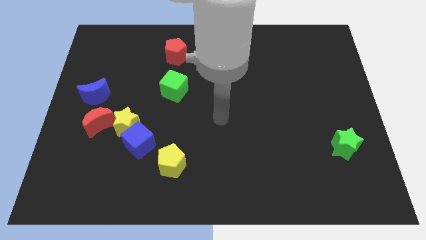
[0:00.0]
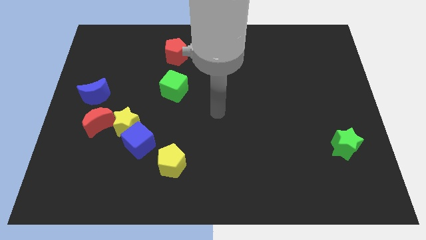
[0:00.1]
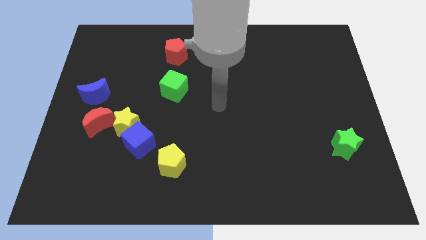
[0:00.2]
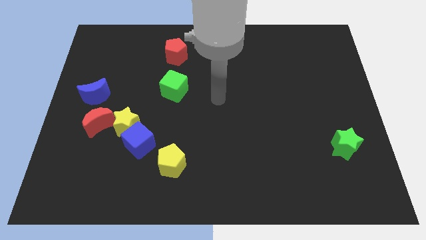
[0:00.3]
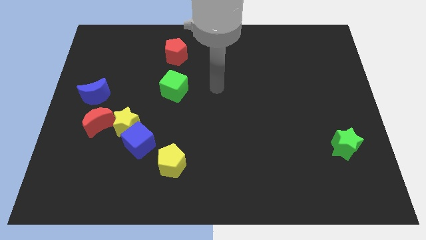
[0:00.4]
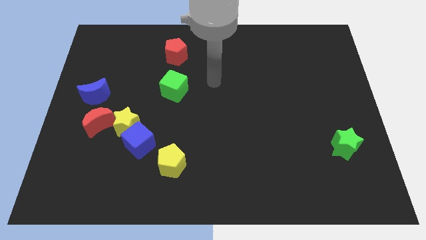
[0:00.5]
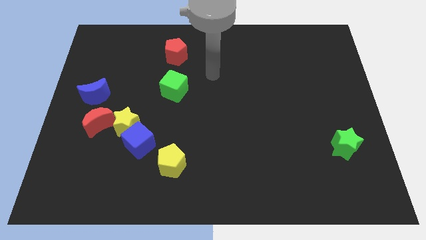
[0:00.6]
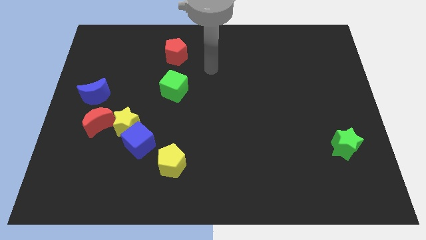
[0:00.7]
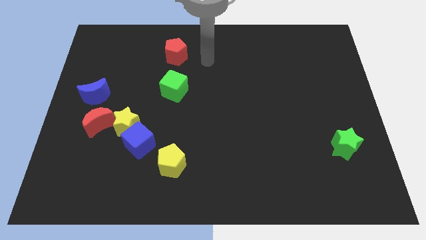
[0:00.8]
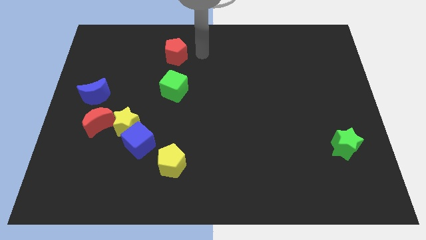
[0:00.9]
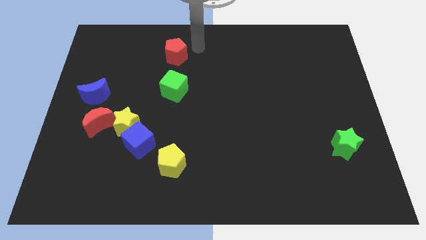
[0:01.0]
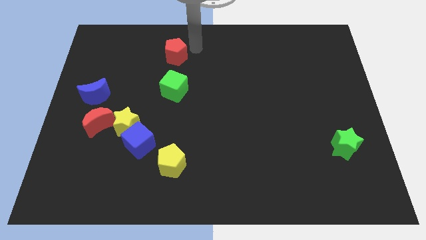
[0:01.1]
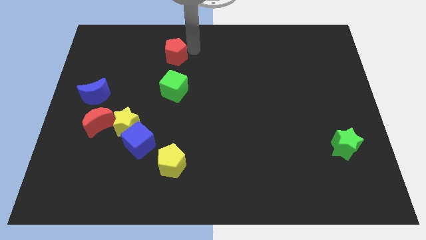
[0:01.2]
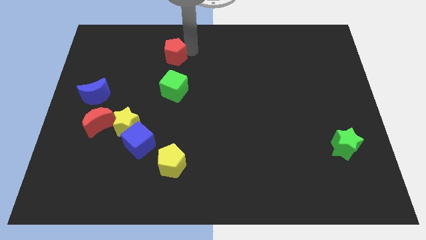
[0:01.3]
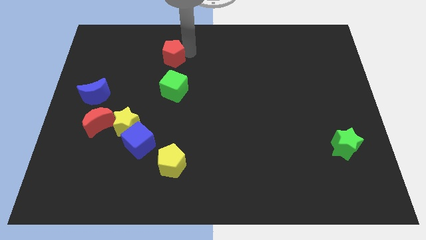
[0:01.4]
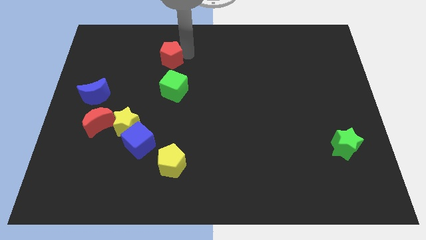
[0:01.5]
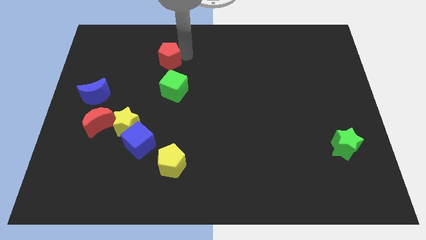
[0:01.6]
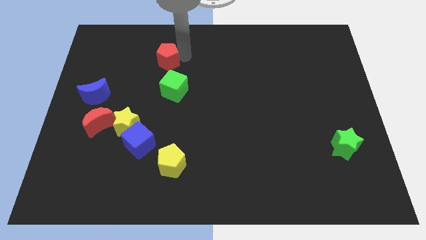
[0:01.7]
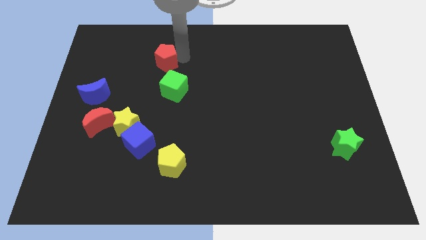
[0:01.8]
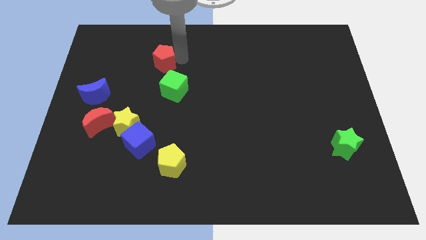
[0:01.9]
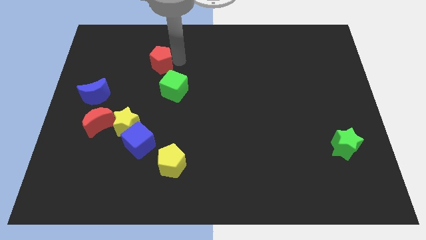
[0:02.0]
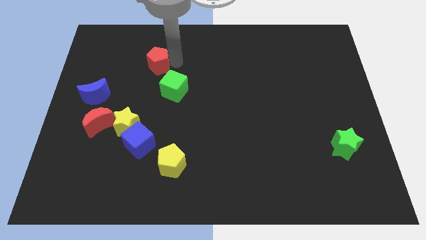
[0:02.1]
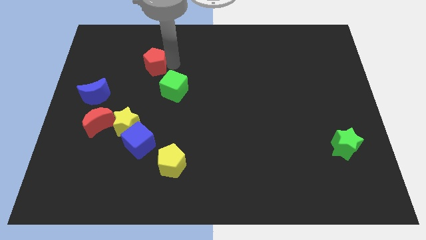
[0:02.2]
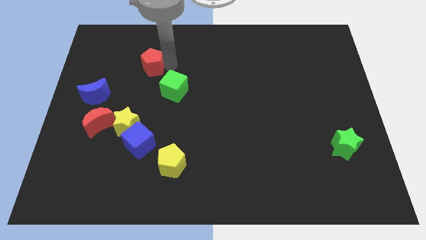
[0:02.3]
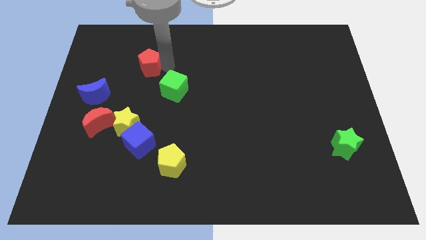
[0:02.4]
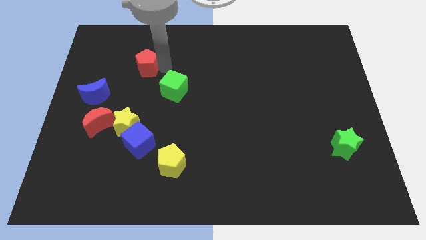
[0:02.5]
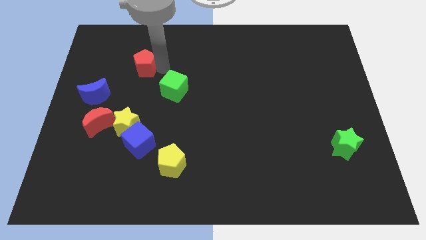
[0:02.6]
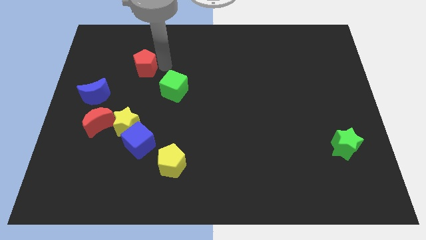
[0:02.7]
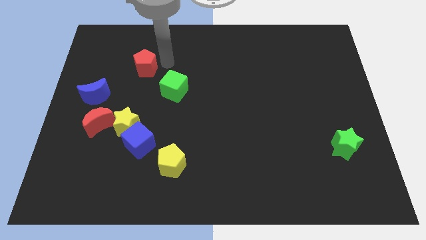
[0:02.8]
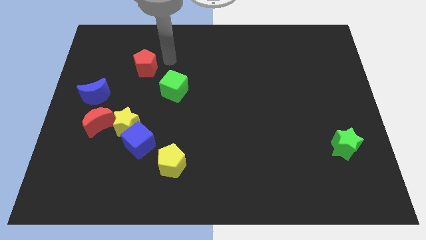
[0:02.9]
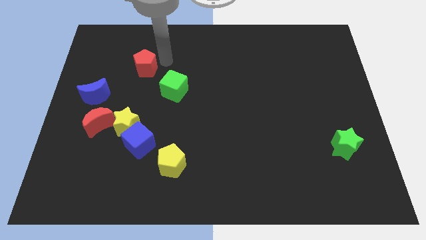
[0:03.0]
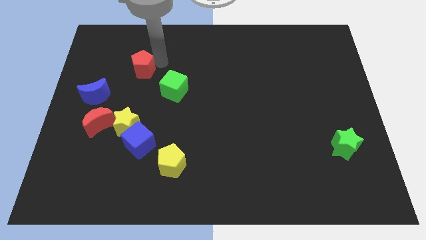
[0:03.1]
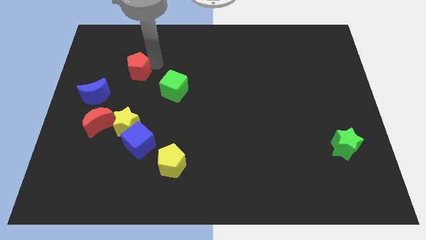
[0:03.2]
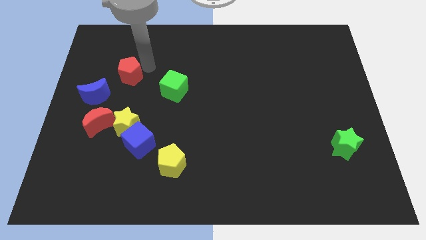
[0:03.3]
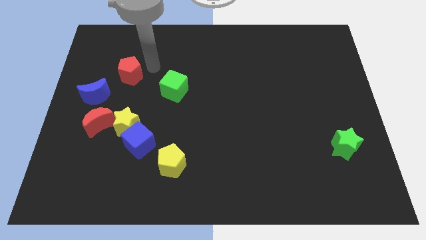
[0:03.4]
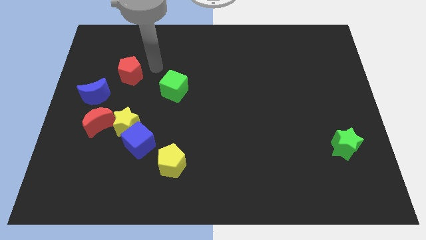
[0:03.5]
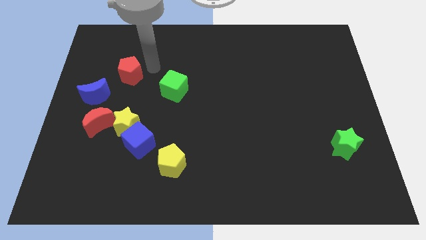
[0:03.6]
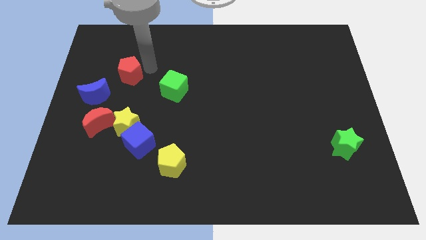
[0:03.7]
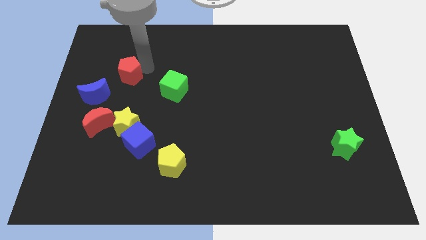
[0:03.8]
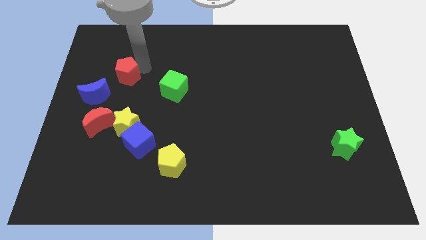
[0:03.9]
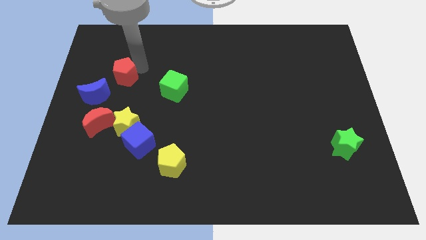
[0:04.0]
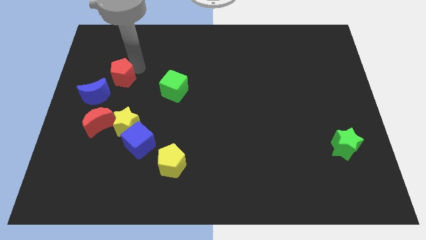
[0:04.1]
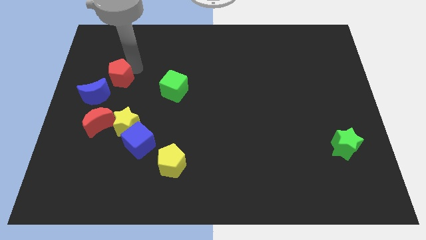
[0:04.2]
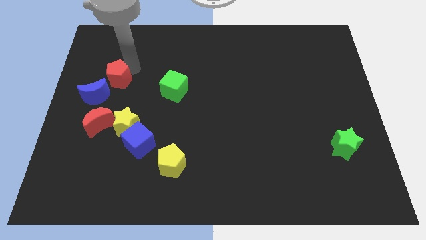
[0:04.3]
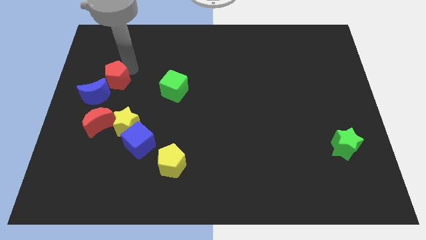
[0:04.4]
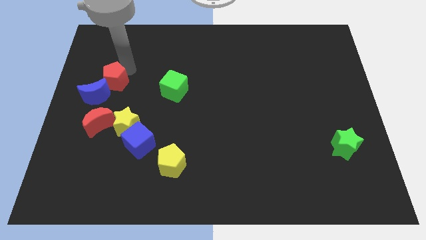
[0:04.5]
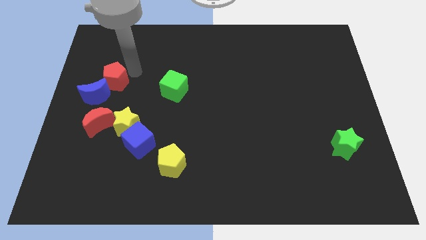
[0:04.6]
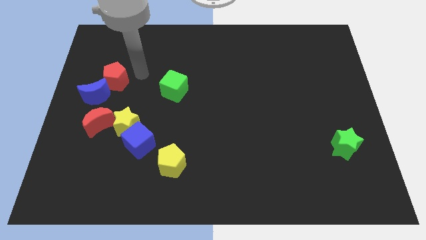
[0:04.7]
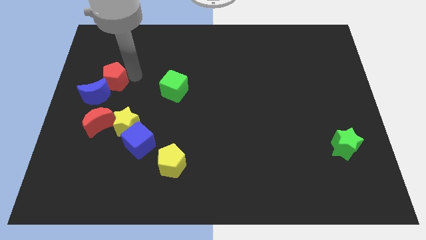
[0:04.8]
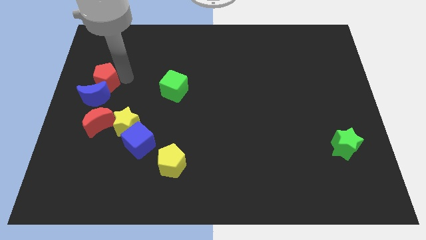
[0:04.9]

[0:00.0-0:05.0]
slide the red pentagon to the center left

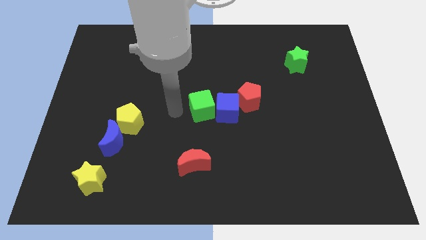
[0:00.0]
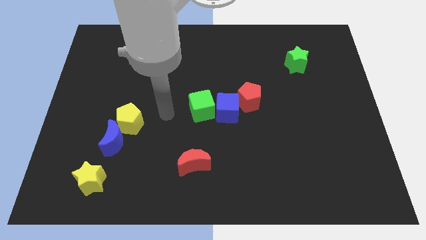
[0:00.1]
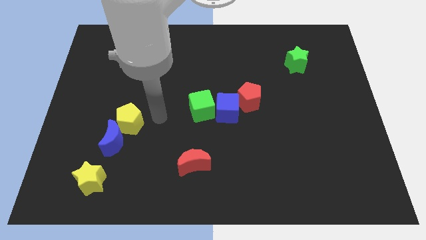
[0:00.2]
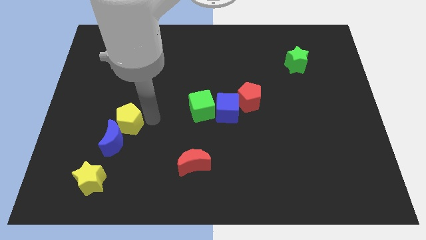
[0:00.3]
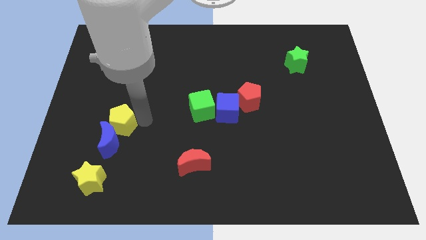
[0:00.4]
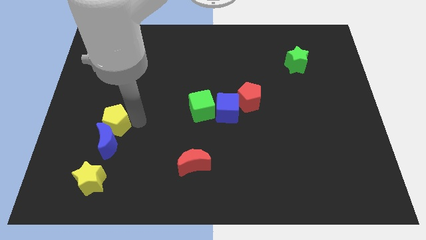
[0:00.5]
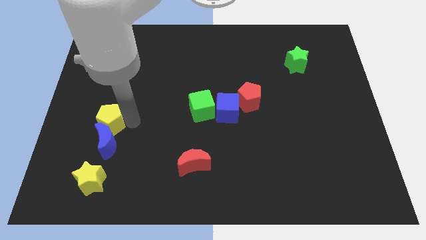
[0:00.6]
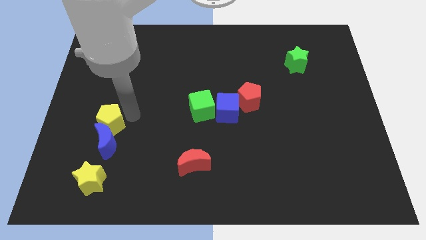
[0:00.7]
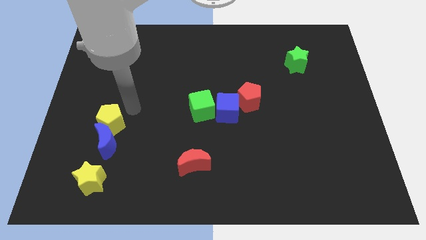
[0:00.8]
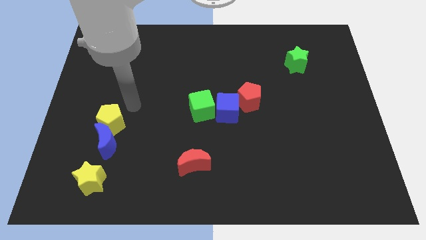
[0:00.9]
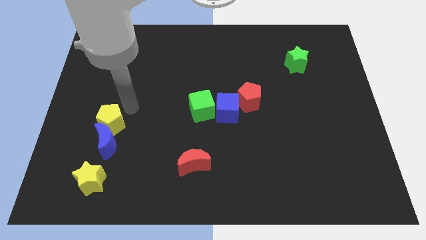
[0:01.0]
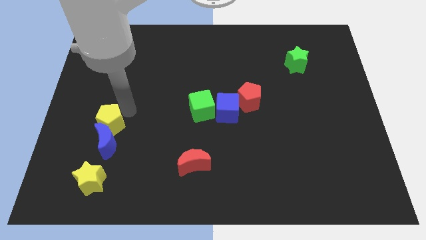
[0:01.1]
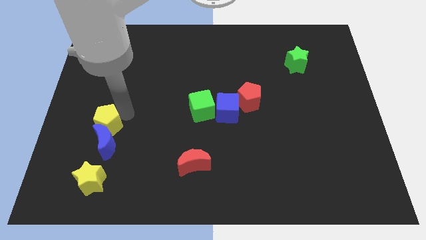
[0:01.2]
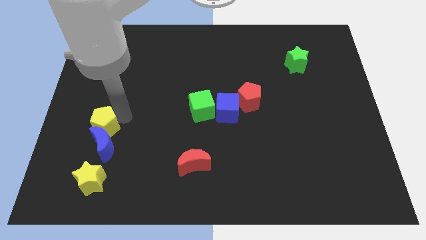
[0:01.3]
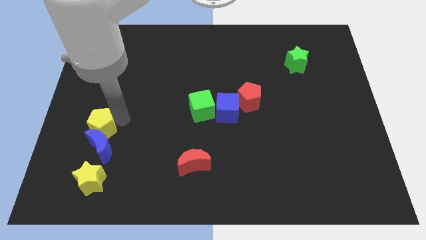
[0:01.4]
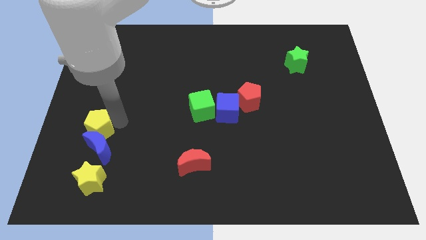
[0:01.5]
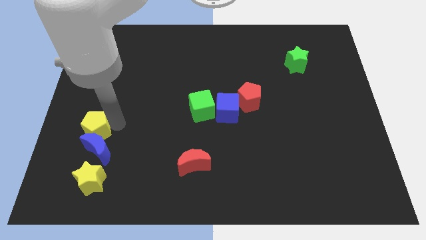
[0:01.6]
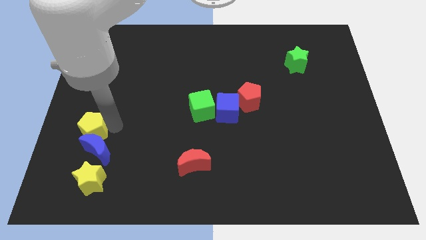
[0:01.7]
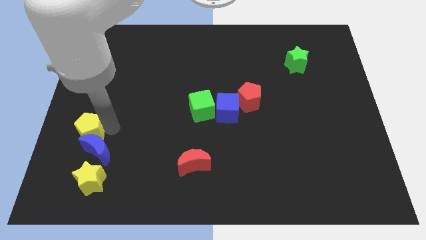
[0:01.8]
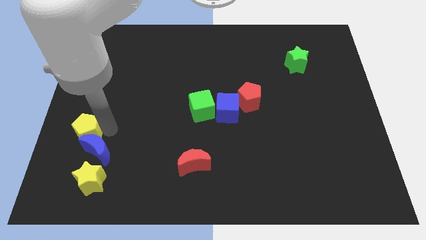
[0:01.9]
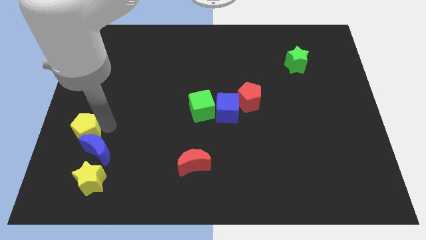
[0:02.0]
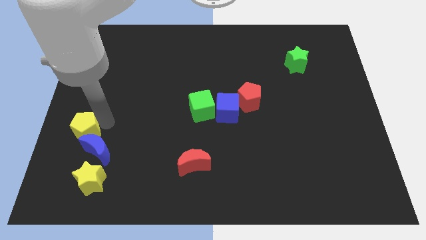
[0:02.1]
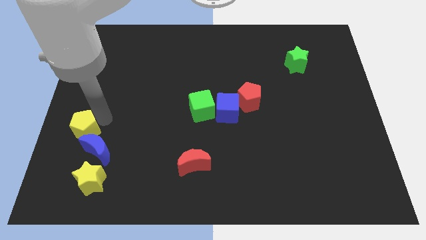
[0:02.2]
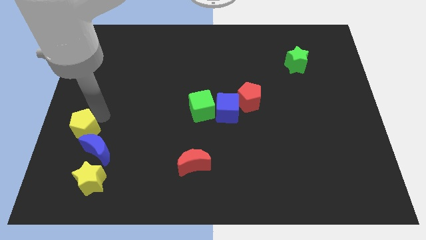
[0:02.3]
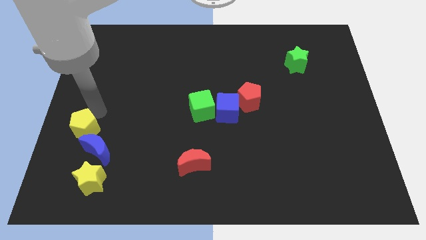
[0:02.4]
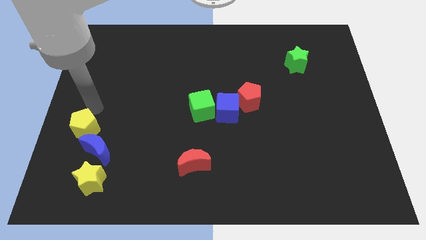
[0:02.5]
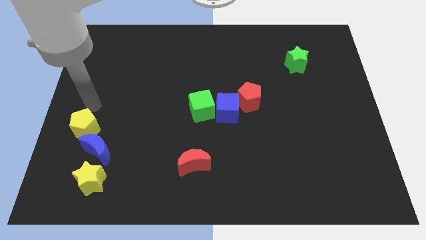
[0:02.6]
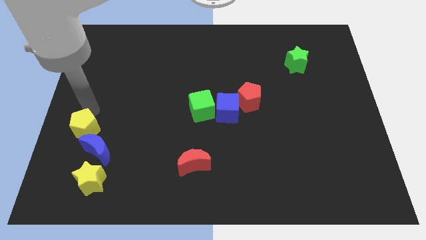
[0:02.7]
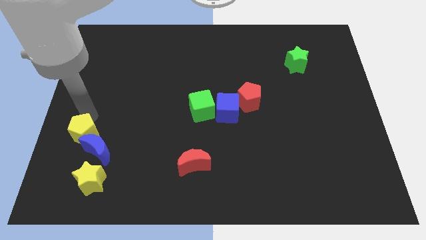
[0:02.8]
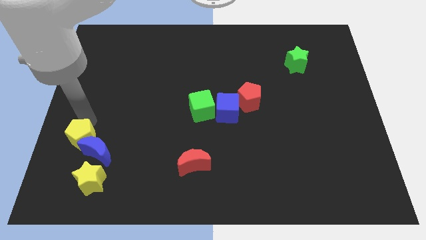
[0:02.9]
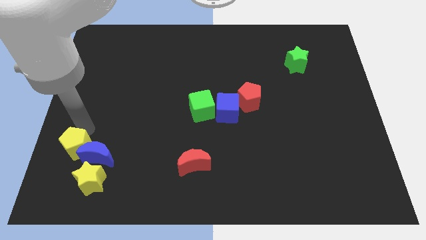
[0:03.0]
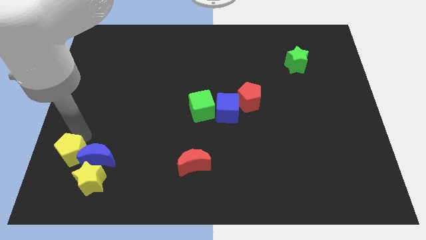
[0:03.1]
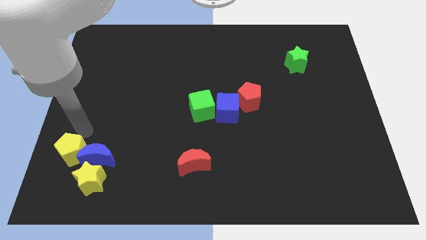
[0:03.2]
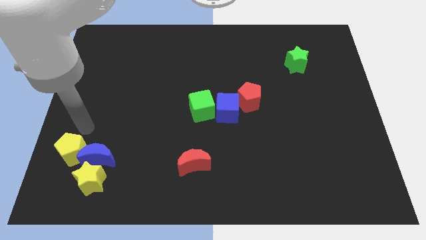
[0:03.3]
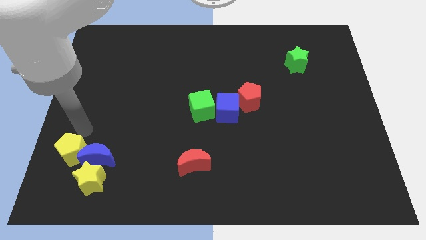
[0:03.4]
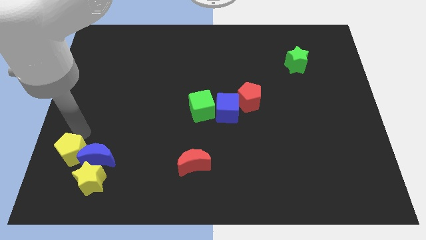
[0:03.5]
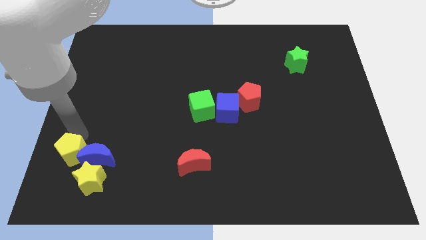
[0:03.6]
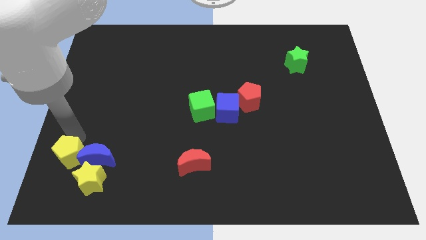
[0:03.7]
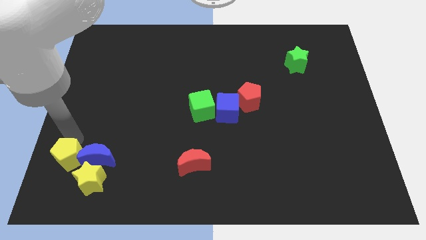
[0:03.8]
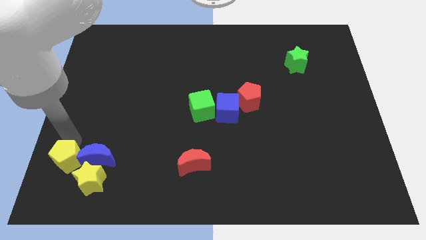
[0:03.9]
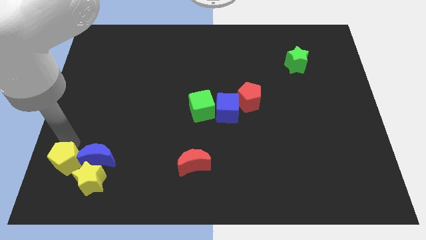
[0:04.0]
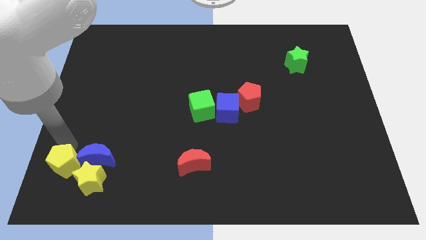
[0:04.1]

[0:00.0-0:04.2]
move the yellow pentagon to the bottom left
